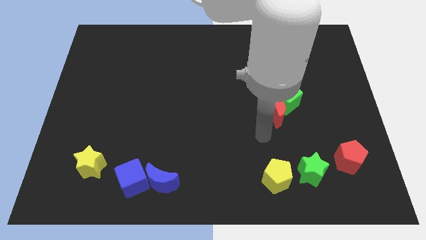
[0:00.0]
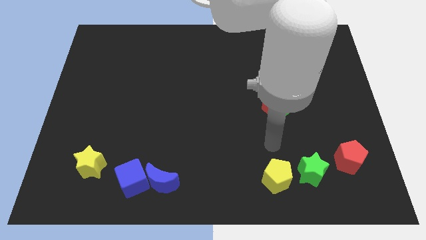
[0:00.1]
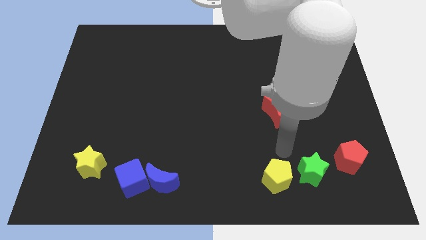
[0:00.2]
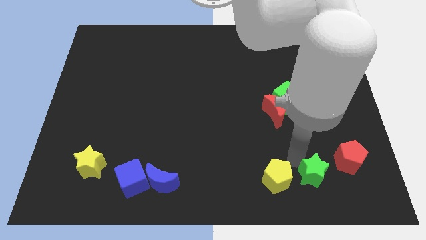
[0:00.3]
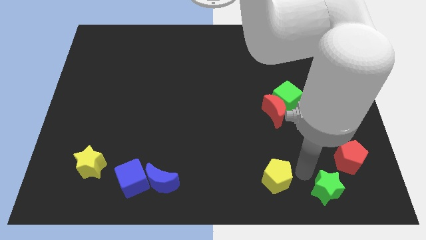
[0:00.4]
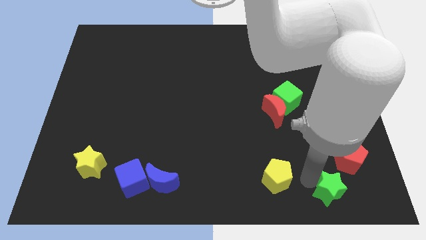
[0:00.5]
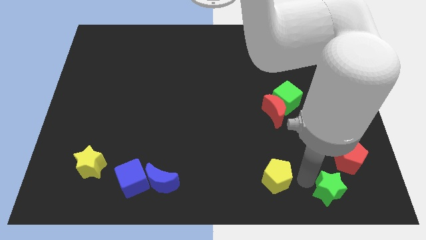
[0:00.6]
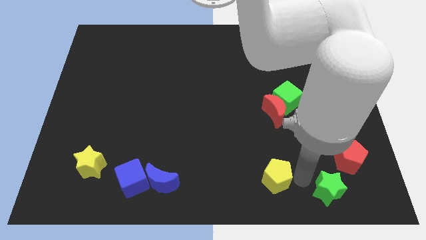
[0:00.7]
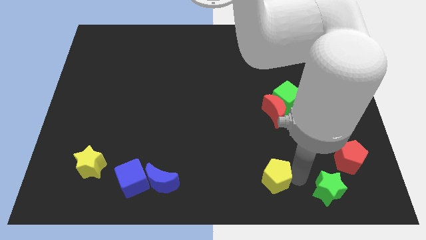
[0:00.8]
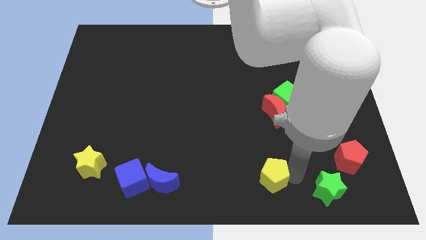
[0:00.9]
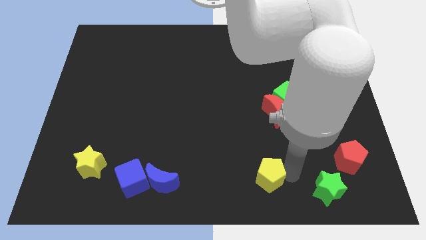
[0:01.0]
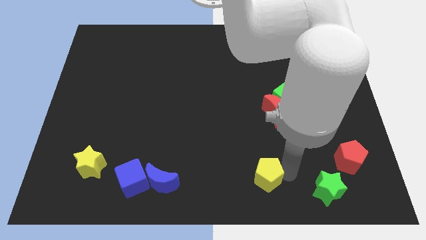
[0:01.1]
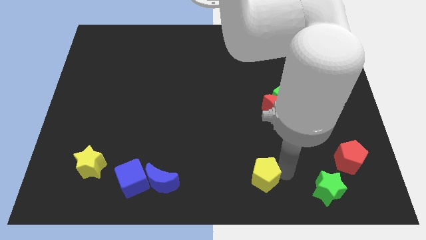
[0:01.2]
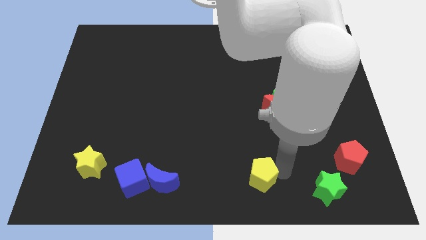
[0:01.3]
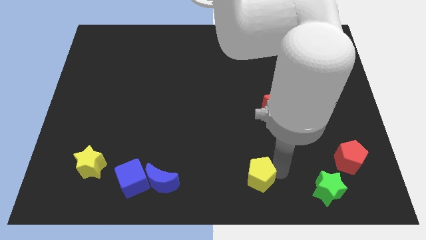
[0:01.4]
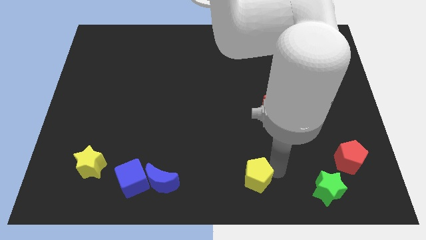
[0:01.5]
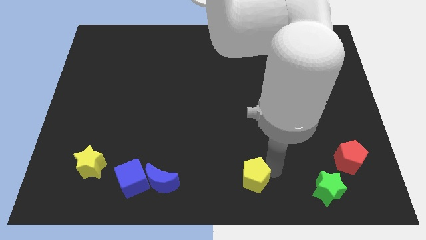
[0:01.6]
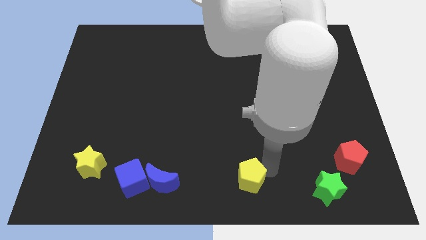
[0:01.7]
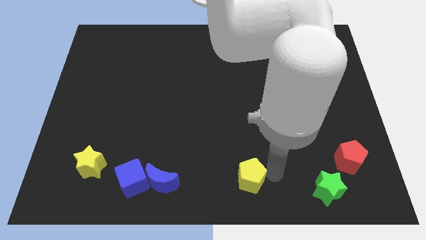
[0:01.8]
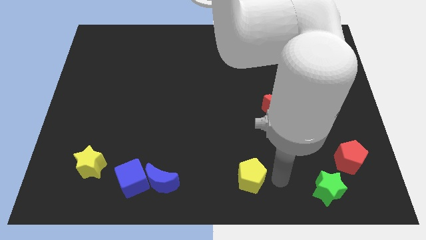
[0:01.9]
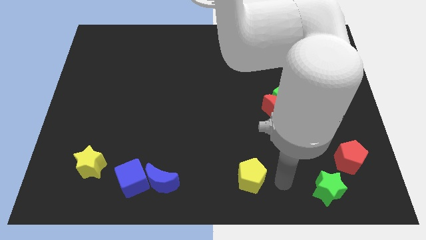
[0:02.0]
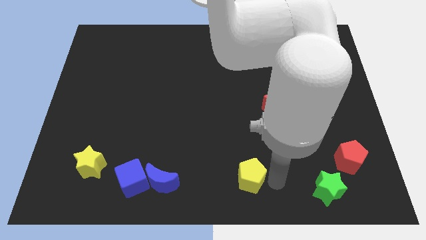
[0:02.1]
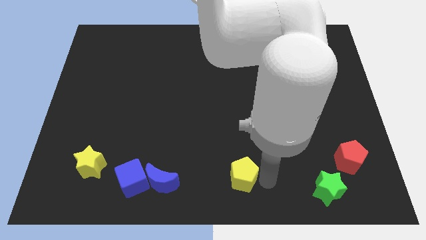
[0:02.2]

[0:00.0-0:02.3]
slightly move the yellow pentagon to the left

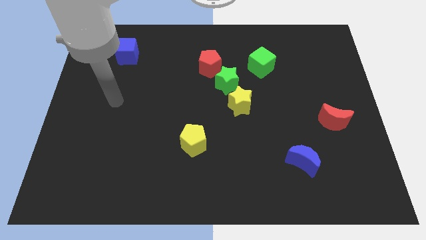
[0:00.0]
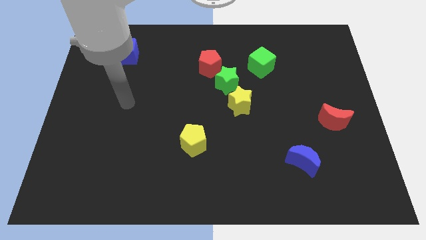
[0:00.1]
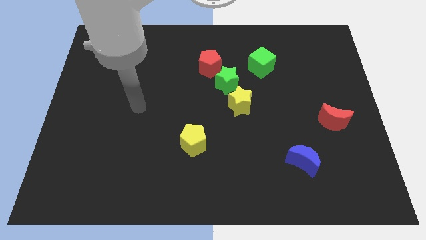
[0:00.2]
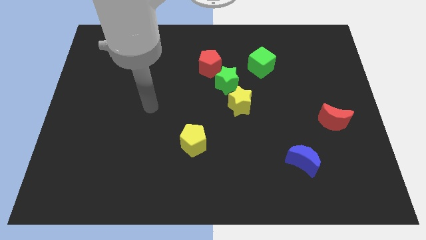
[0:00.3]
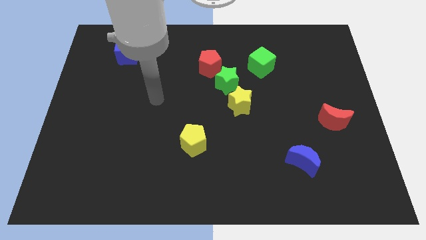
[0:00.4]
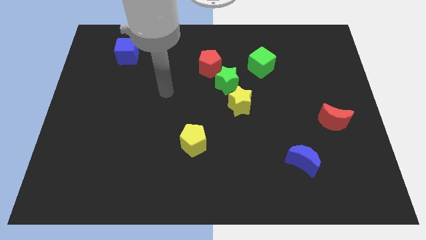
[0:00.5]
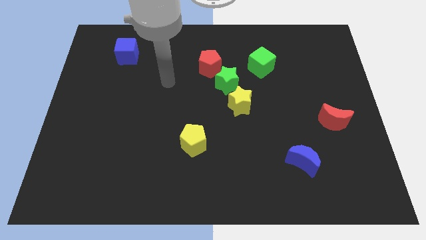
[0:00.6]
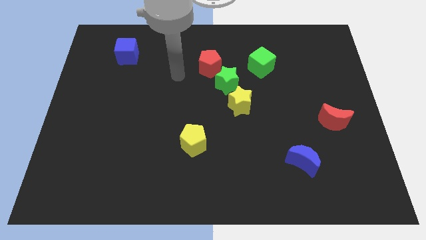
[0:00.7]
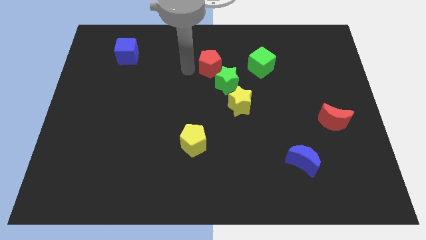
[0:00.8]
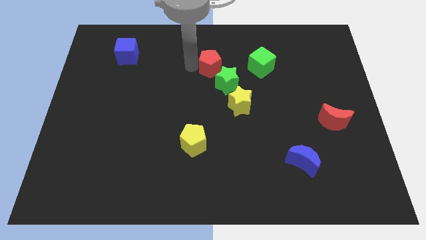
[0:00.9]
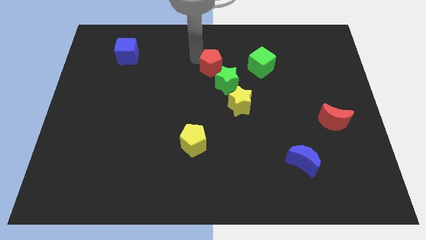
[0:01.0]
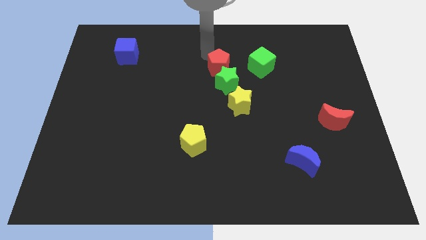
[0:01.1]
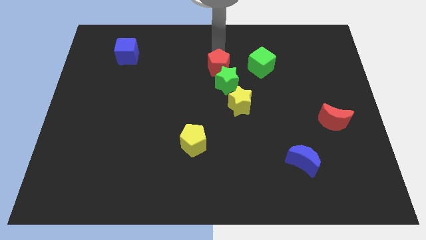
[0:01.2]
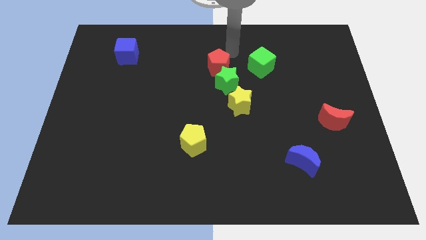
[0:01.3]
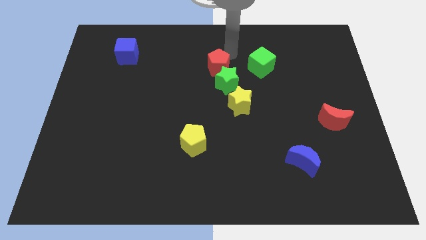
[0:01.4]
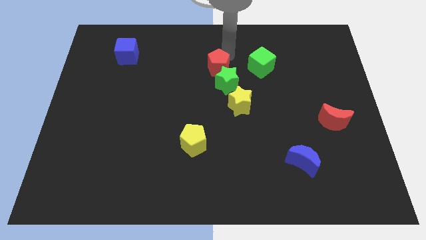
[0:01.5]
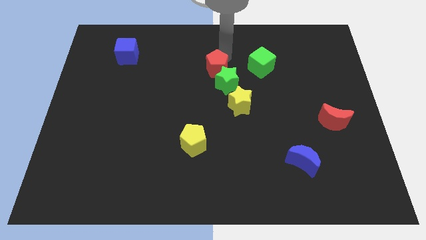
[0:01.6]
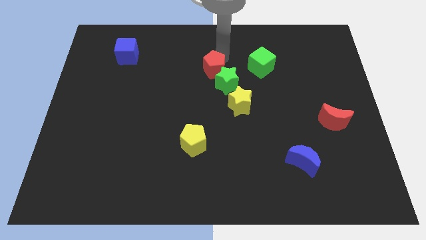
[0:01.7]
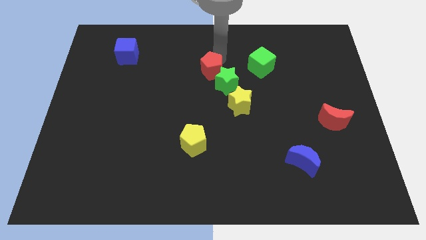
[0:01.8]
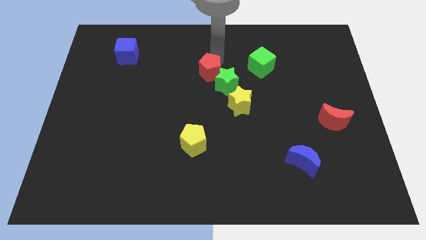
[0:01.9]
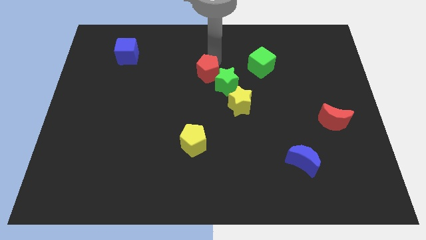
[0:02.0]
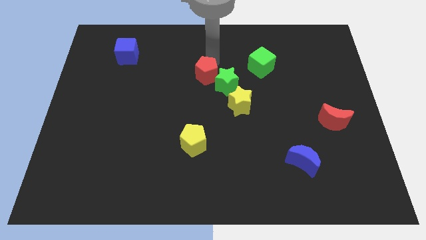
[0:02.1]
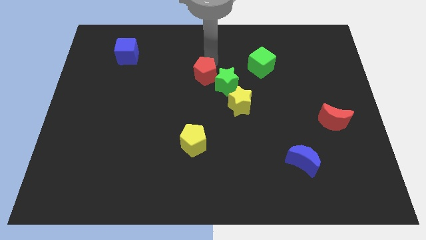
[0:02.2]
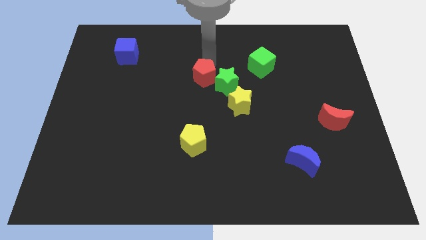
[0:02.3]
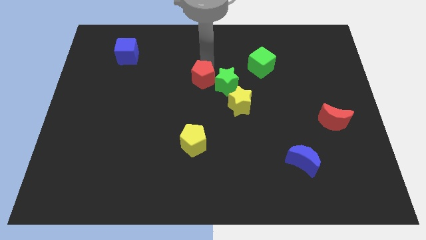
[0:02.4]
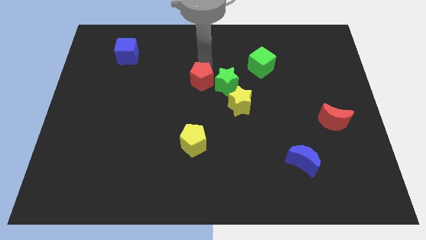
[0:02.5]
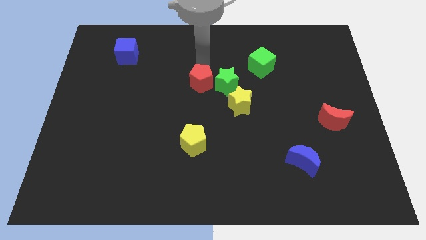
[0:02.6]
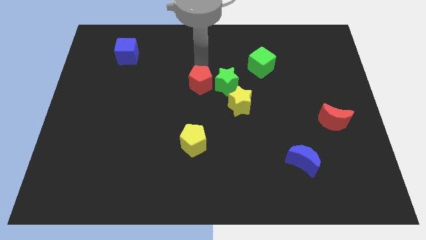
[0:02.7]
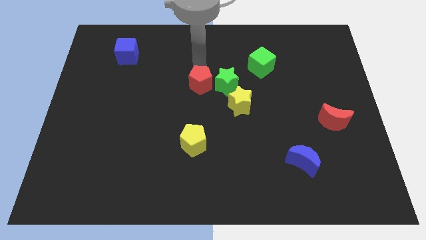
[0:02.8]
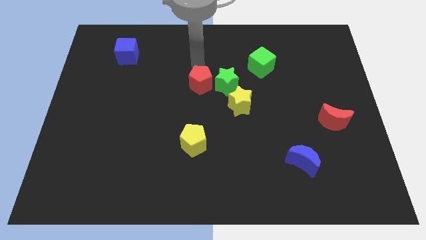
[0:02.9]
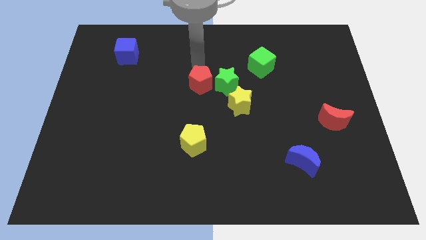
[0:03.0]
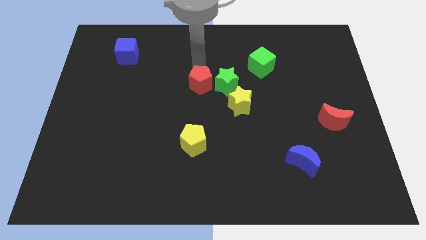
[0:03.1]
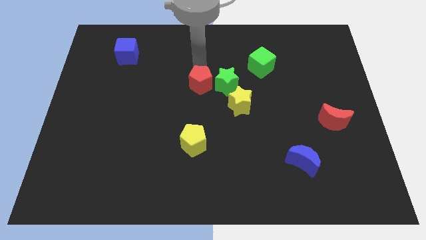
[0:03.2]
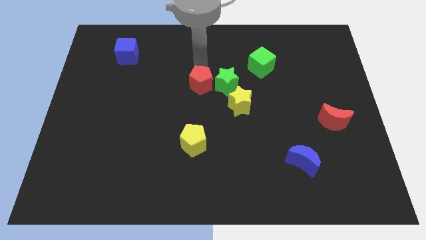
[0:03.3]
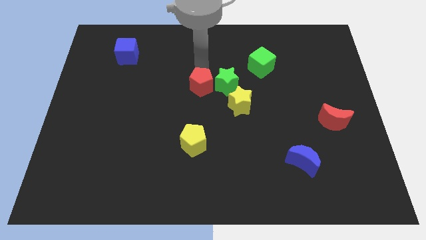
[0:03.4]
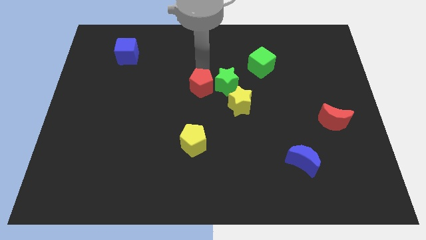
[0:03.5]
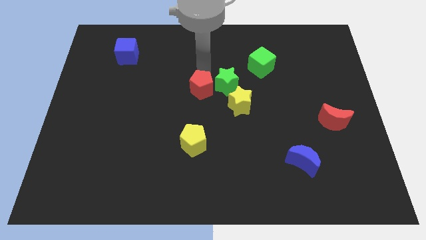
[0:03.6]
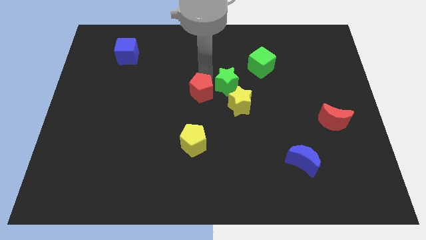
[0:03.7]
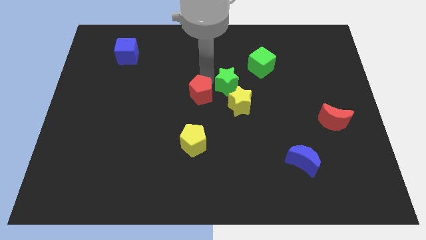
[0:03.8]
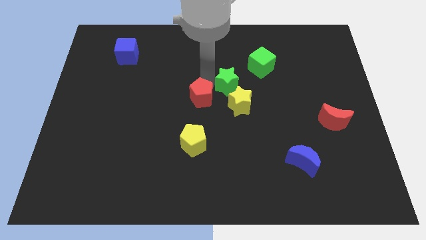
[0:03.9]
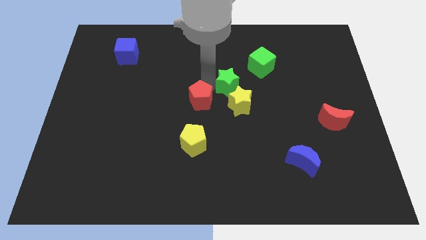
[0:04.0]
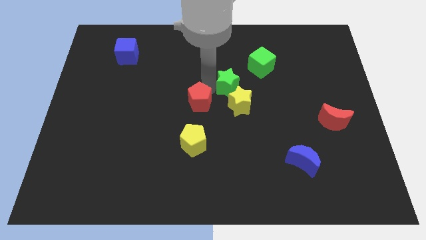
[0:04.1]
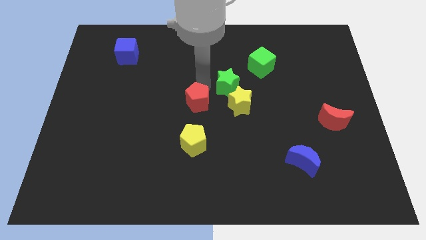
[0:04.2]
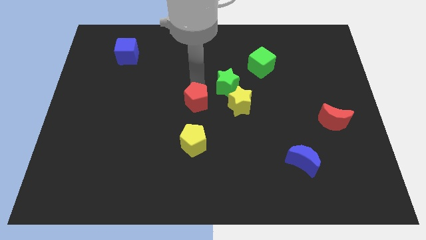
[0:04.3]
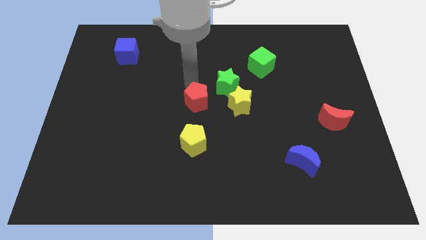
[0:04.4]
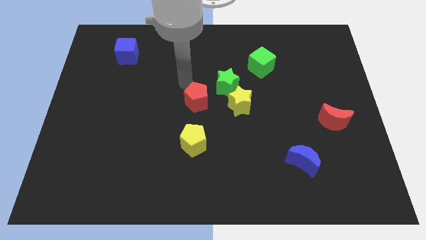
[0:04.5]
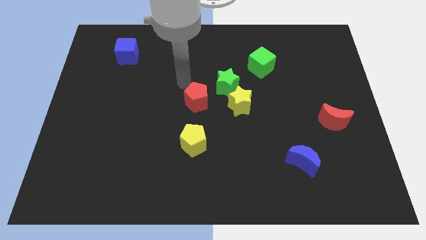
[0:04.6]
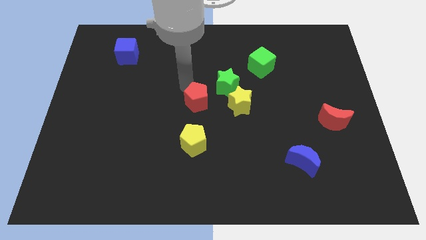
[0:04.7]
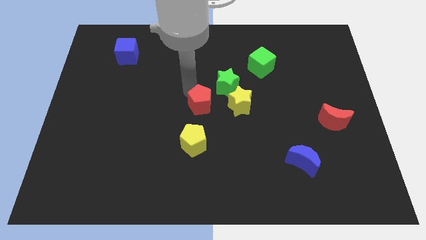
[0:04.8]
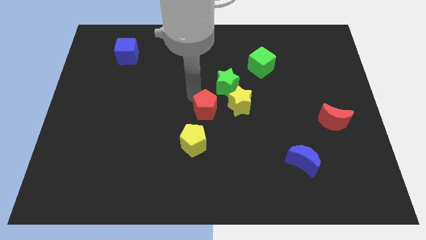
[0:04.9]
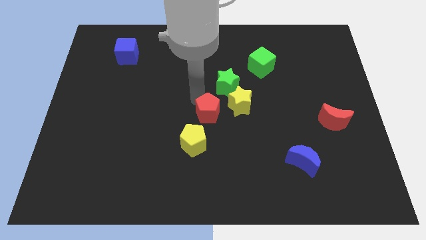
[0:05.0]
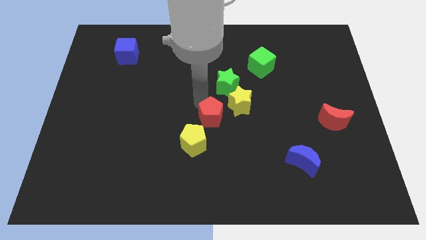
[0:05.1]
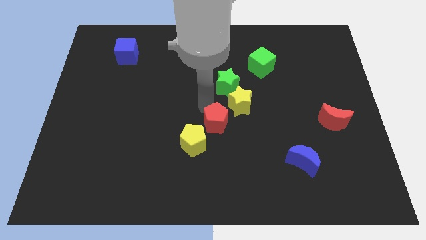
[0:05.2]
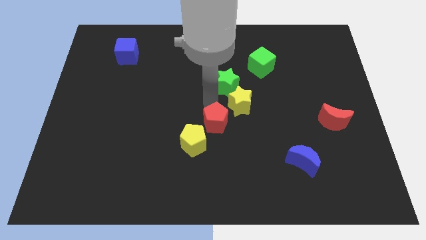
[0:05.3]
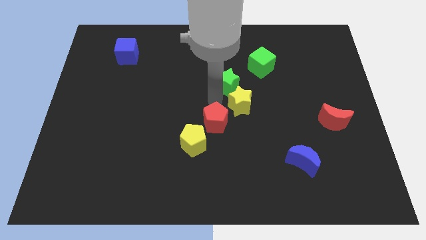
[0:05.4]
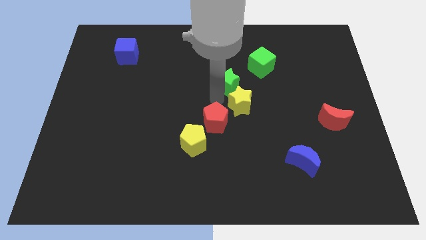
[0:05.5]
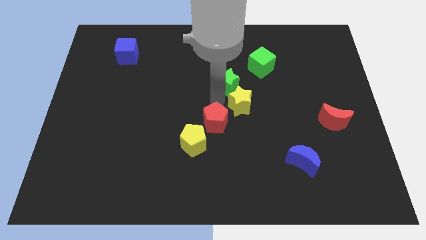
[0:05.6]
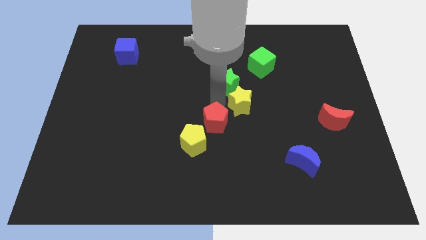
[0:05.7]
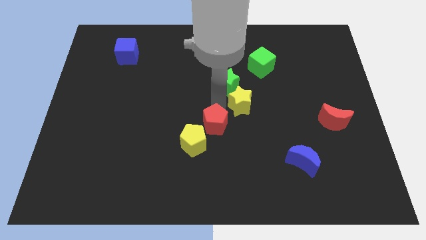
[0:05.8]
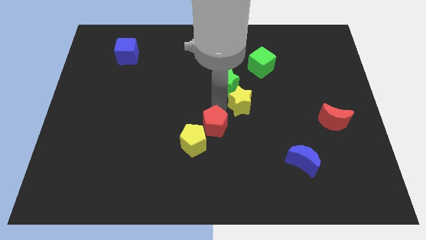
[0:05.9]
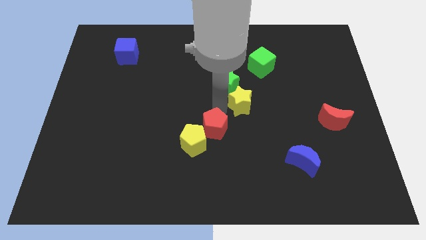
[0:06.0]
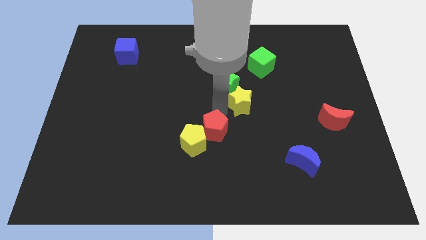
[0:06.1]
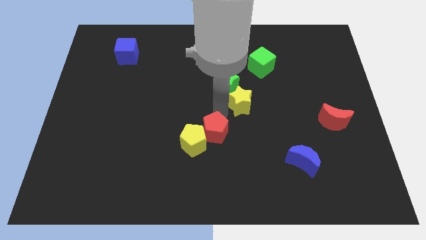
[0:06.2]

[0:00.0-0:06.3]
push the red pentagon downwards
